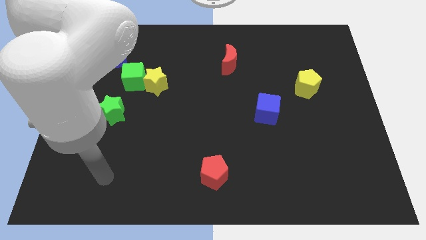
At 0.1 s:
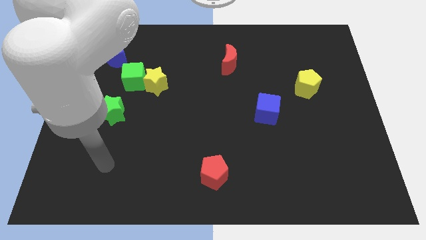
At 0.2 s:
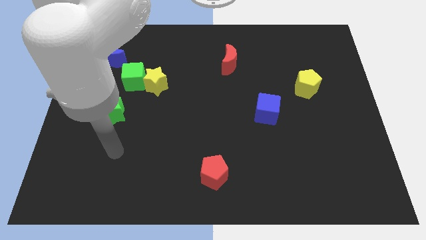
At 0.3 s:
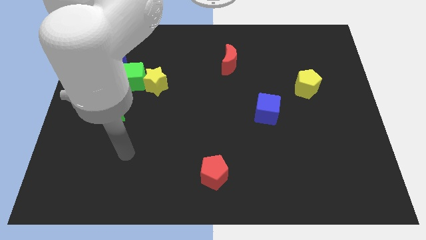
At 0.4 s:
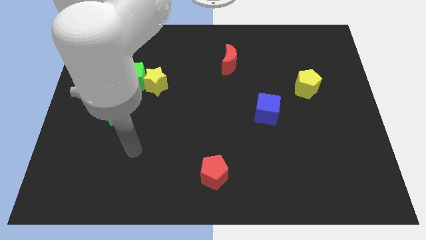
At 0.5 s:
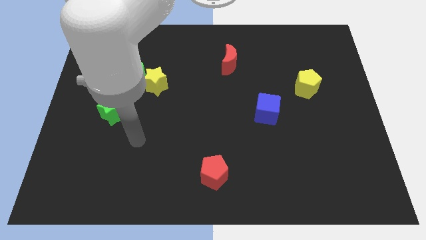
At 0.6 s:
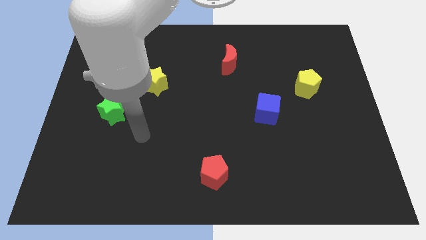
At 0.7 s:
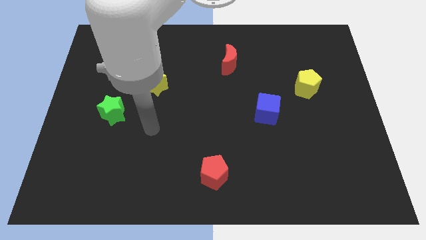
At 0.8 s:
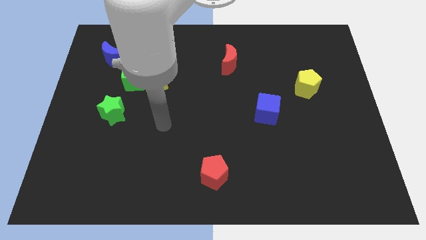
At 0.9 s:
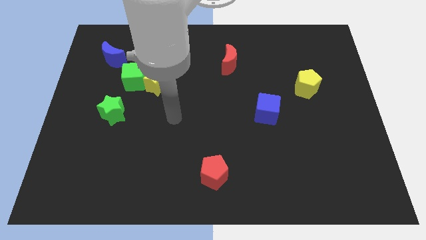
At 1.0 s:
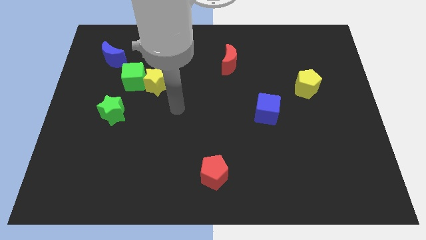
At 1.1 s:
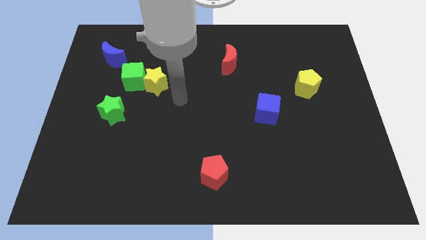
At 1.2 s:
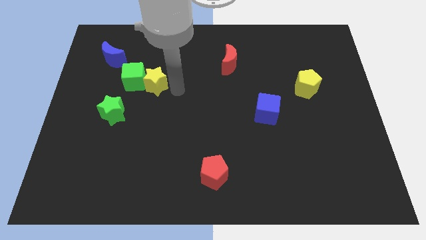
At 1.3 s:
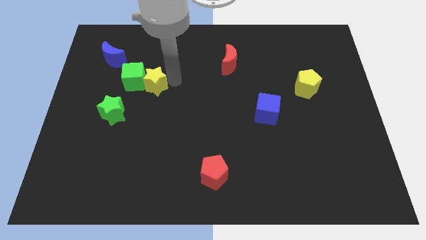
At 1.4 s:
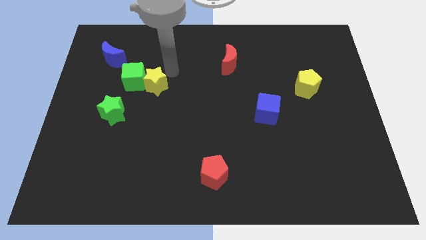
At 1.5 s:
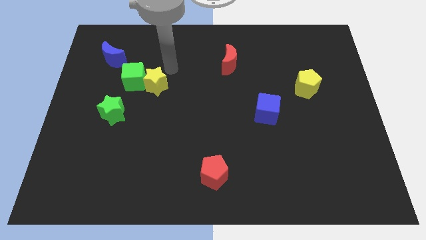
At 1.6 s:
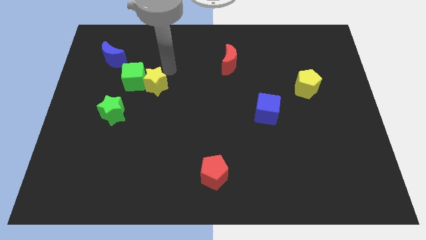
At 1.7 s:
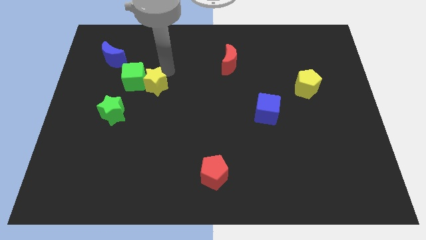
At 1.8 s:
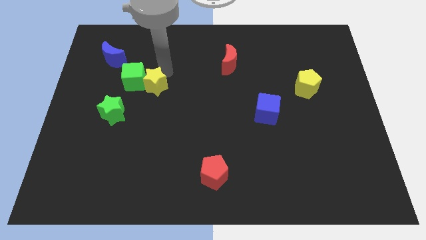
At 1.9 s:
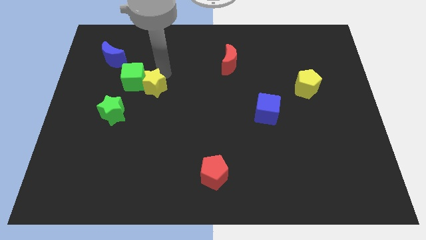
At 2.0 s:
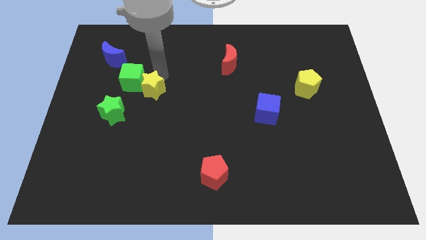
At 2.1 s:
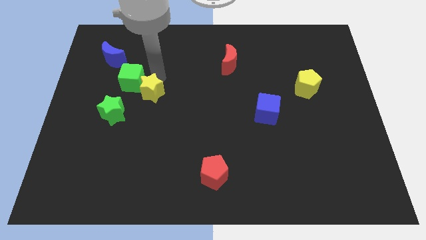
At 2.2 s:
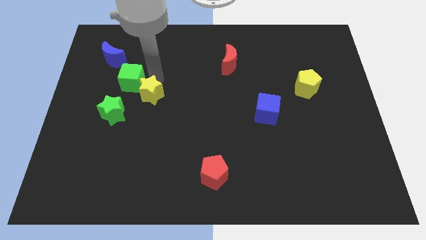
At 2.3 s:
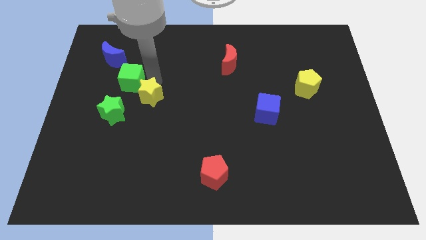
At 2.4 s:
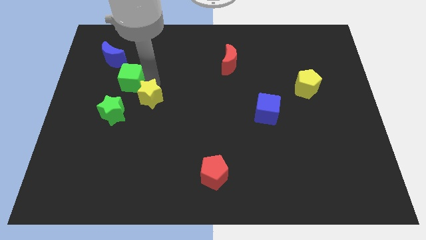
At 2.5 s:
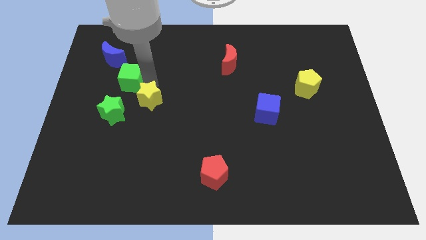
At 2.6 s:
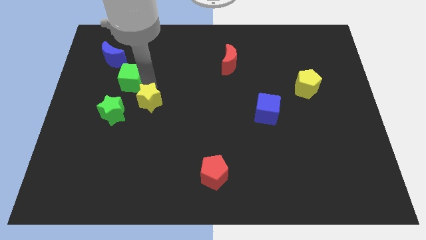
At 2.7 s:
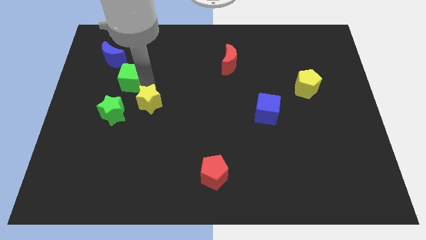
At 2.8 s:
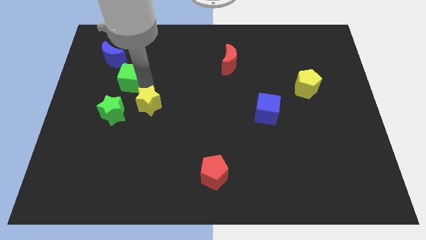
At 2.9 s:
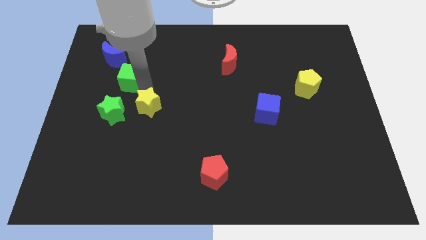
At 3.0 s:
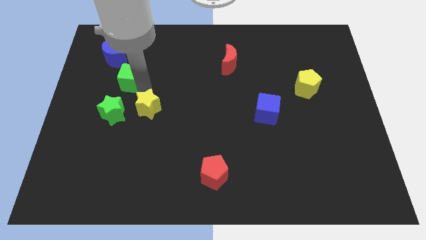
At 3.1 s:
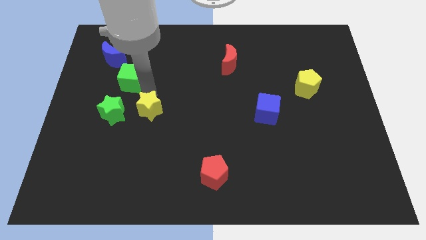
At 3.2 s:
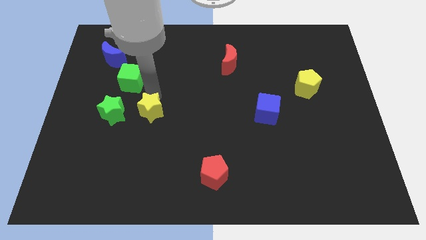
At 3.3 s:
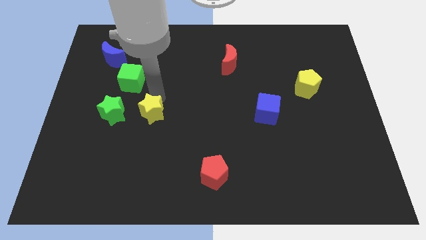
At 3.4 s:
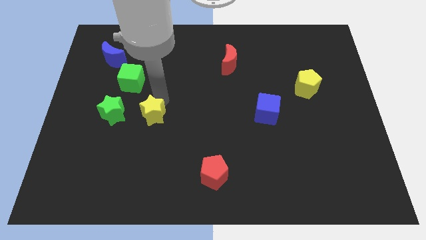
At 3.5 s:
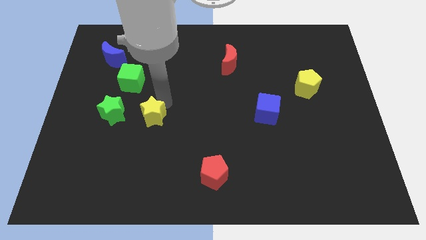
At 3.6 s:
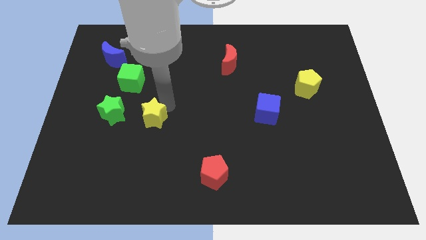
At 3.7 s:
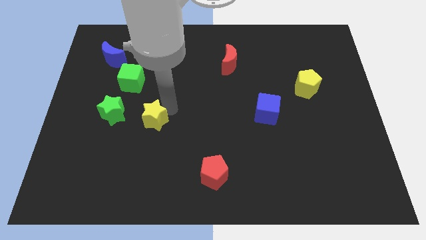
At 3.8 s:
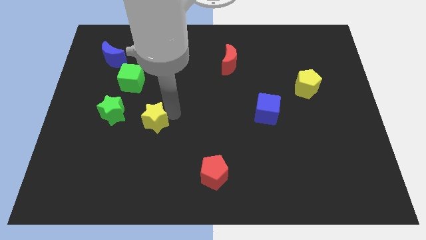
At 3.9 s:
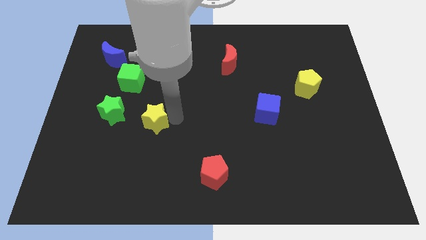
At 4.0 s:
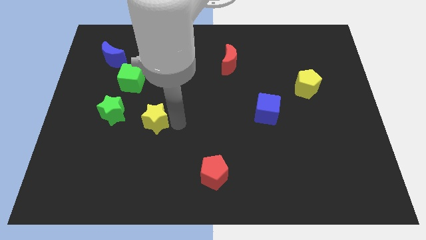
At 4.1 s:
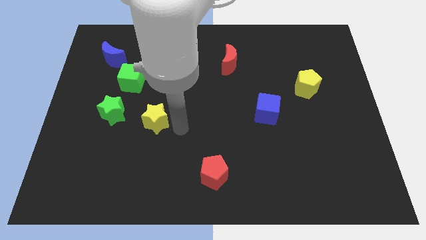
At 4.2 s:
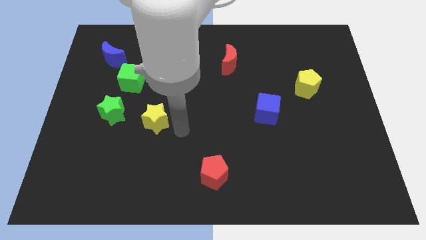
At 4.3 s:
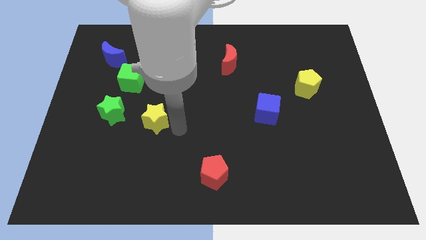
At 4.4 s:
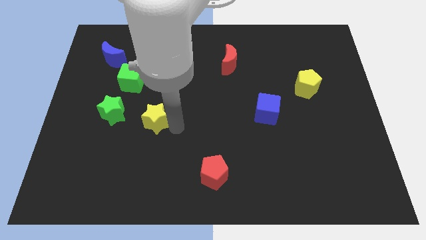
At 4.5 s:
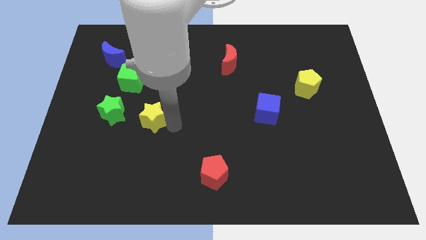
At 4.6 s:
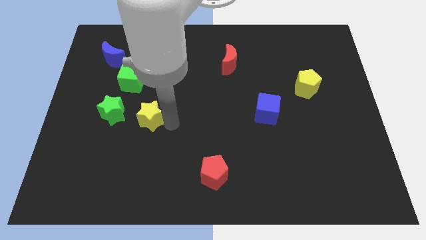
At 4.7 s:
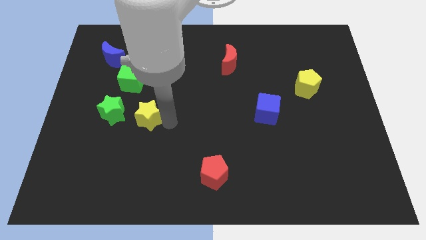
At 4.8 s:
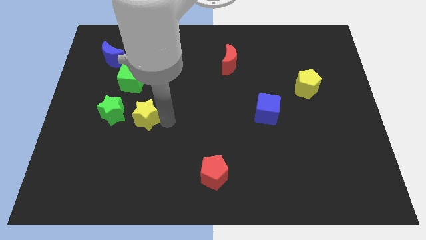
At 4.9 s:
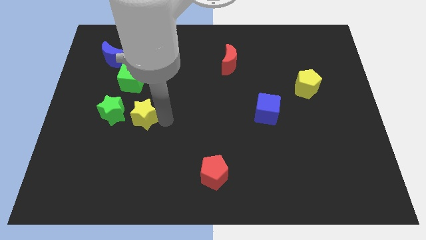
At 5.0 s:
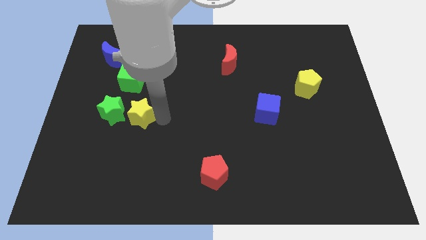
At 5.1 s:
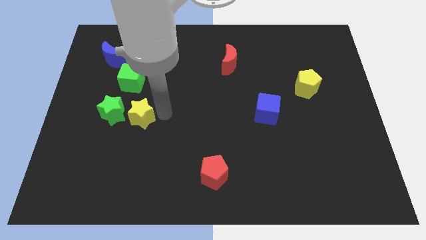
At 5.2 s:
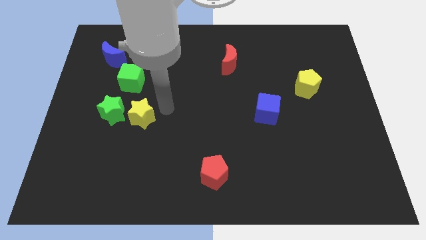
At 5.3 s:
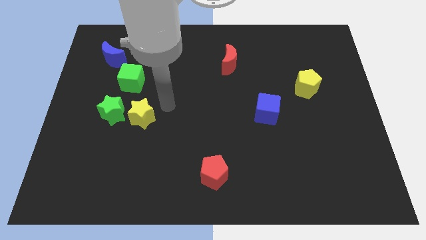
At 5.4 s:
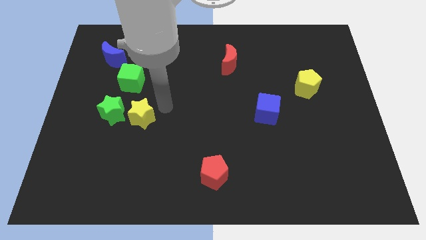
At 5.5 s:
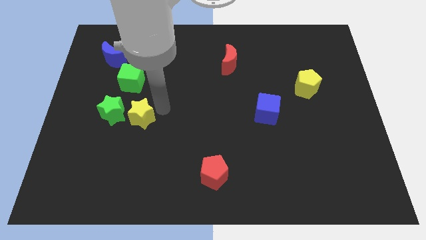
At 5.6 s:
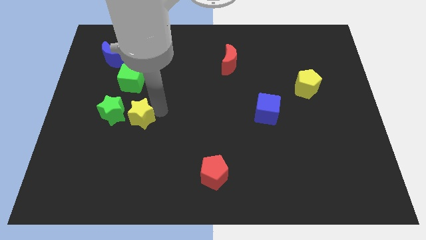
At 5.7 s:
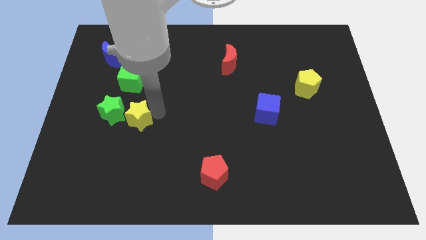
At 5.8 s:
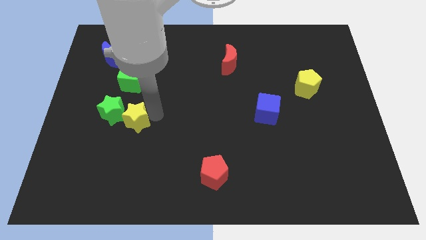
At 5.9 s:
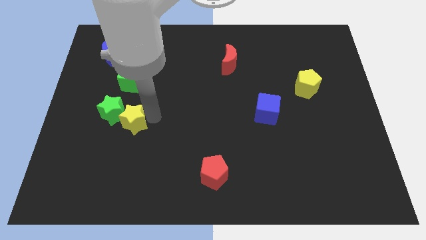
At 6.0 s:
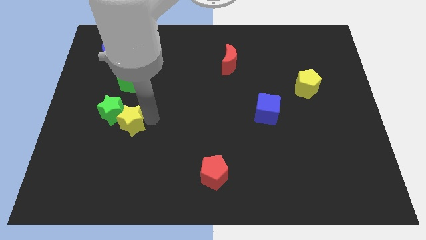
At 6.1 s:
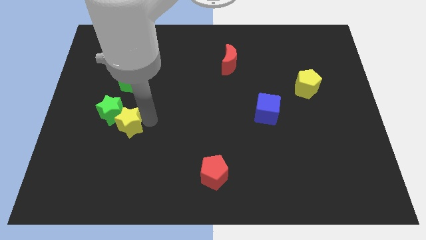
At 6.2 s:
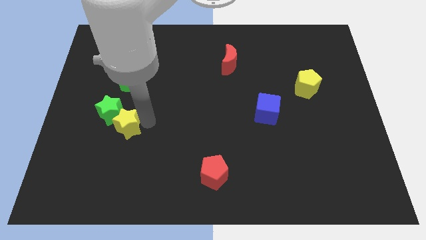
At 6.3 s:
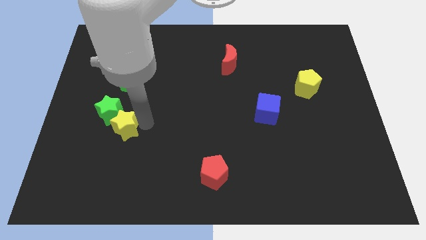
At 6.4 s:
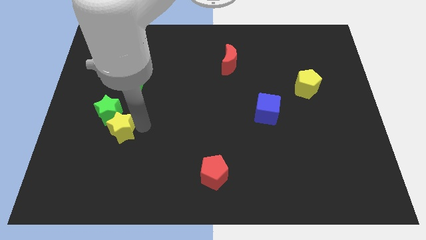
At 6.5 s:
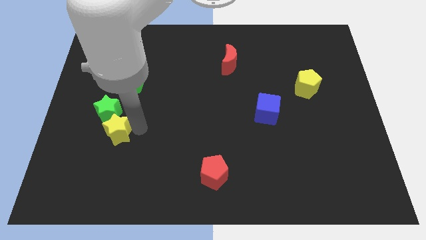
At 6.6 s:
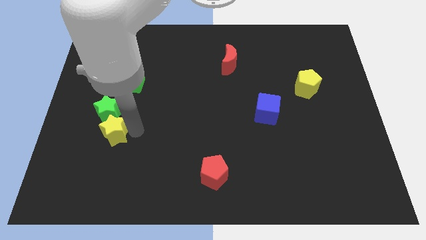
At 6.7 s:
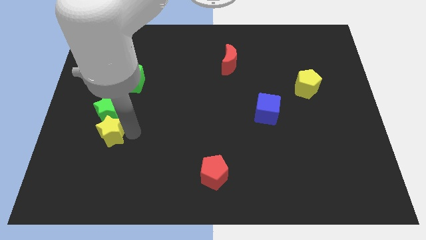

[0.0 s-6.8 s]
push the yellow star to the bottom left side of the green star

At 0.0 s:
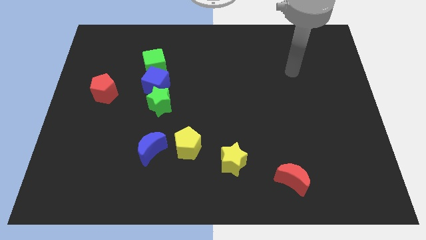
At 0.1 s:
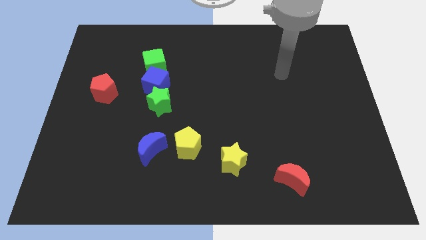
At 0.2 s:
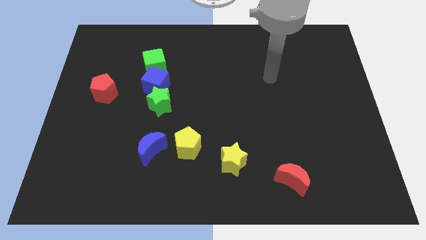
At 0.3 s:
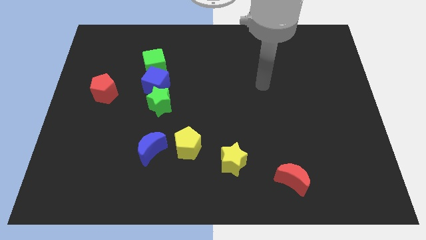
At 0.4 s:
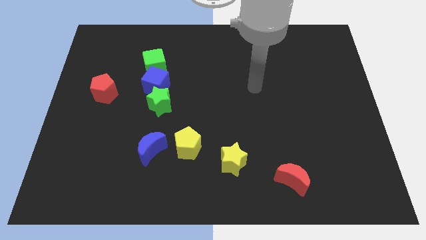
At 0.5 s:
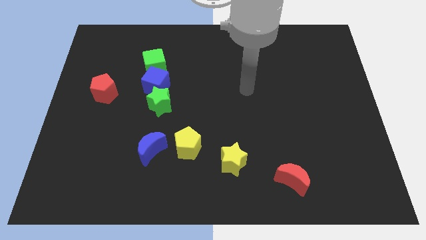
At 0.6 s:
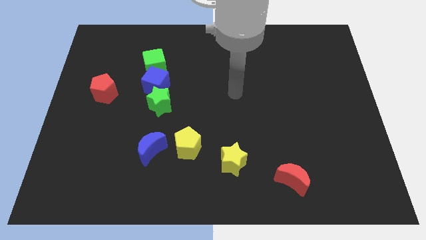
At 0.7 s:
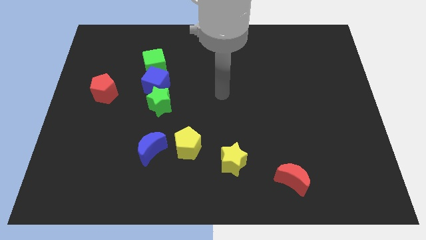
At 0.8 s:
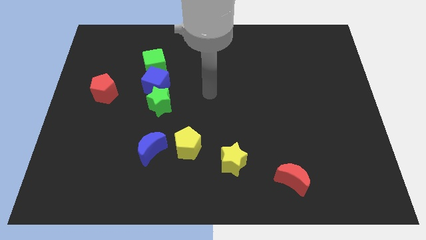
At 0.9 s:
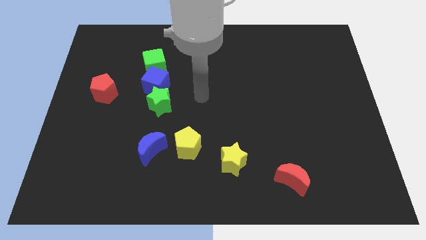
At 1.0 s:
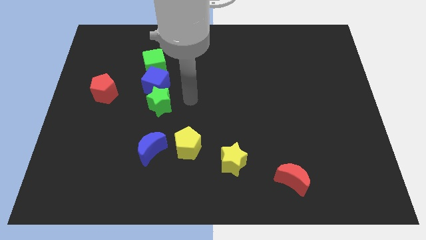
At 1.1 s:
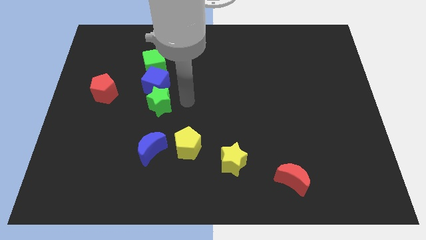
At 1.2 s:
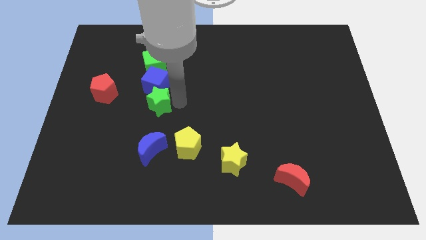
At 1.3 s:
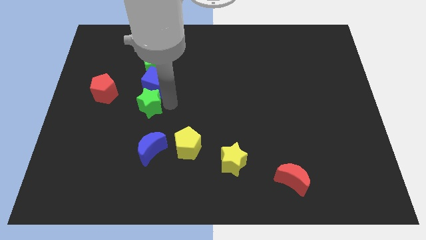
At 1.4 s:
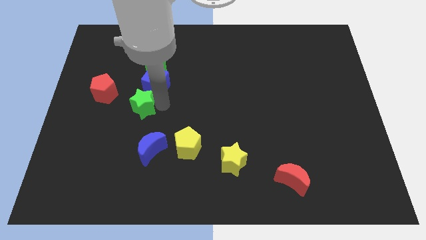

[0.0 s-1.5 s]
move the green star to the bottom right side of the red pentagon
